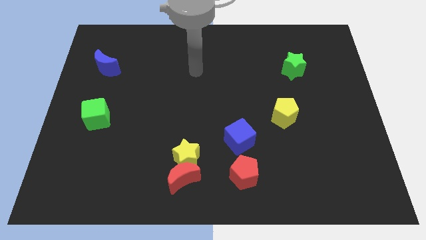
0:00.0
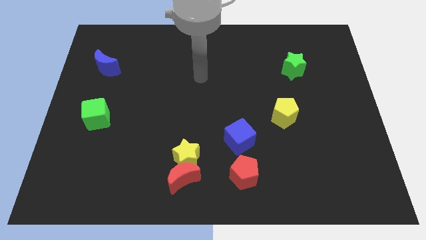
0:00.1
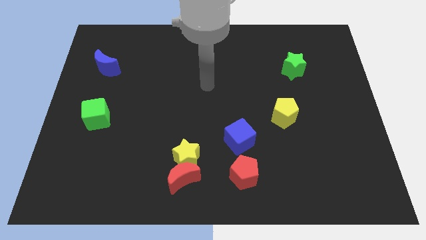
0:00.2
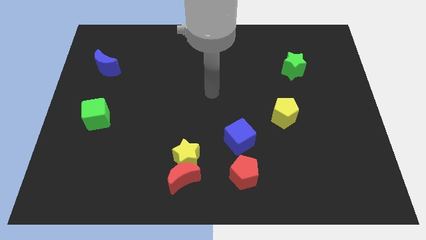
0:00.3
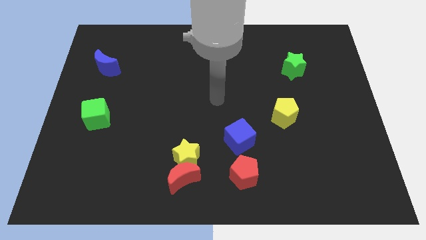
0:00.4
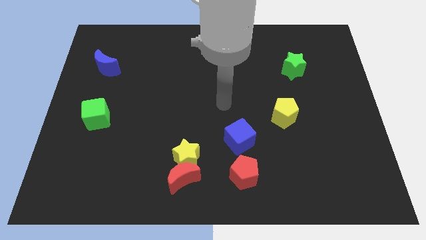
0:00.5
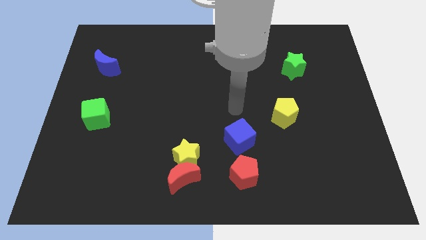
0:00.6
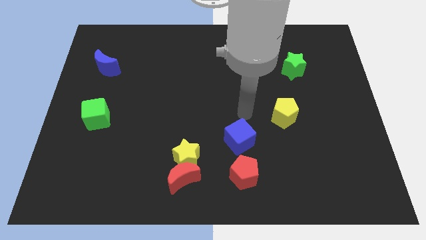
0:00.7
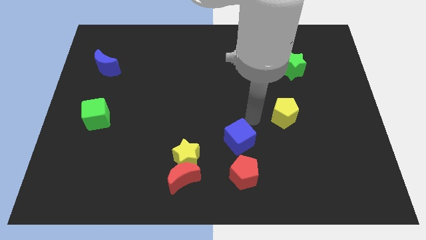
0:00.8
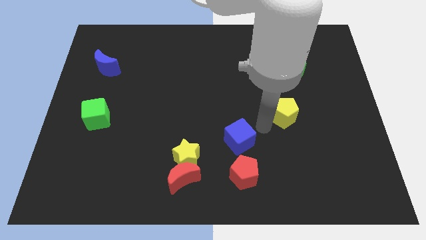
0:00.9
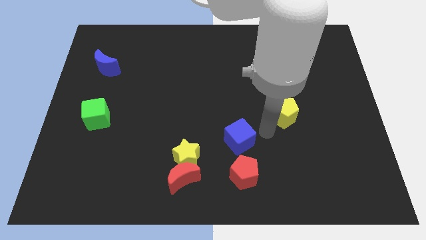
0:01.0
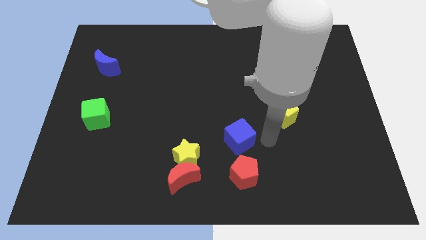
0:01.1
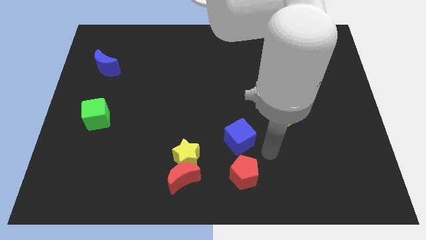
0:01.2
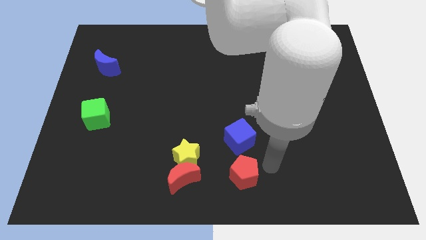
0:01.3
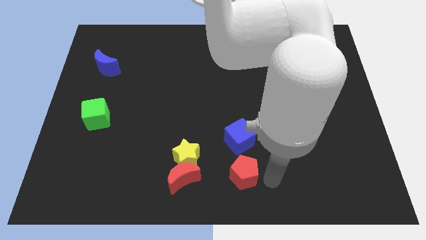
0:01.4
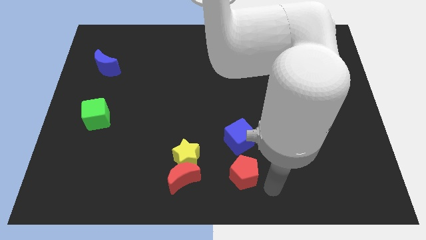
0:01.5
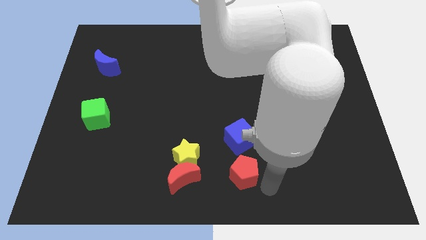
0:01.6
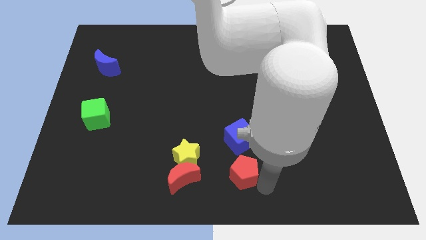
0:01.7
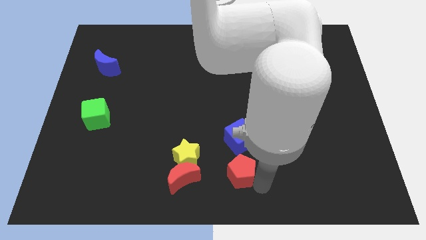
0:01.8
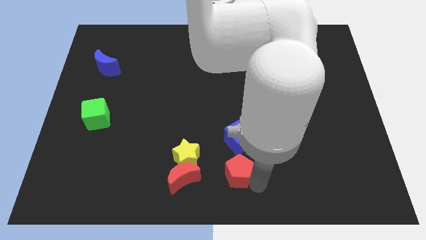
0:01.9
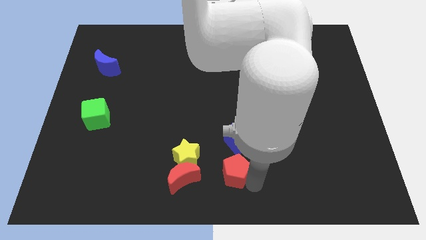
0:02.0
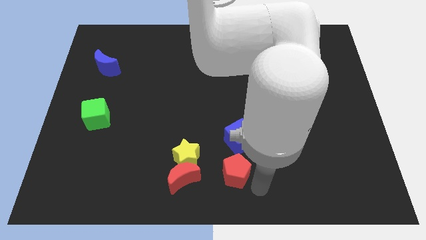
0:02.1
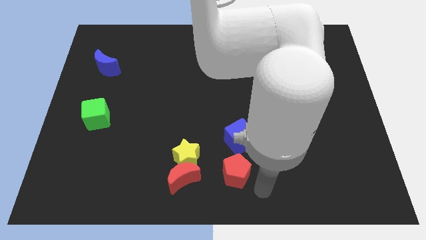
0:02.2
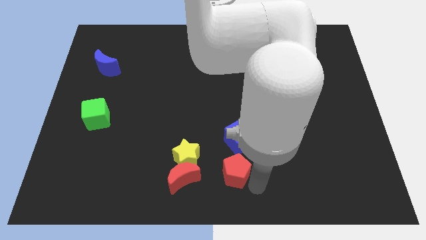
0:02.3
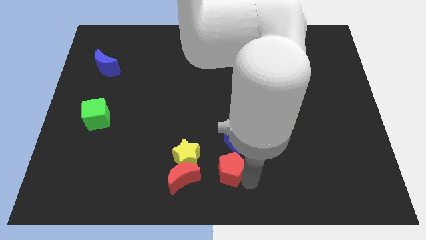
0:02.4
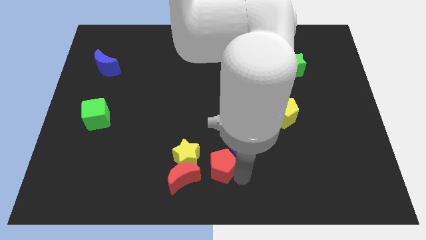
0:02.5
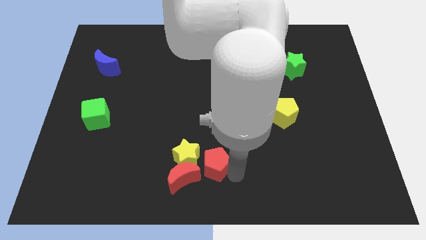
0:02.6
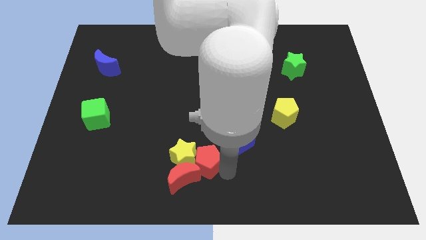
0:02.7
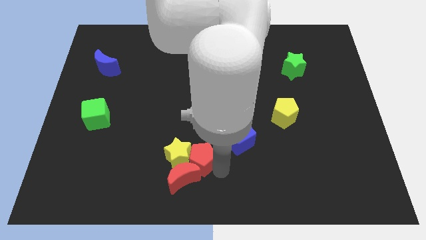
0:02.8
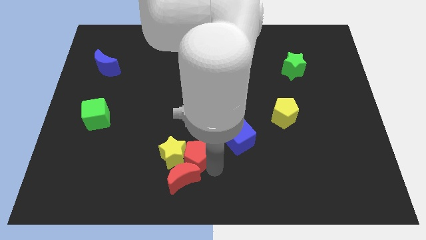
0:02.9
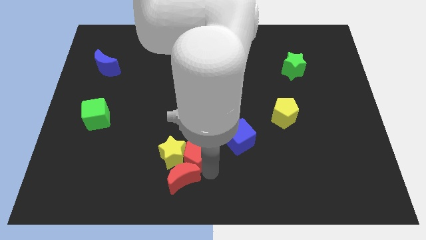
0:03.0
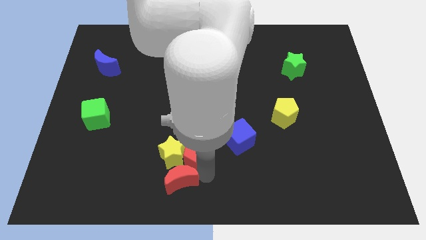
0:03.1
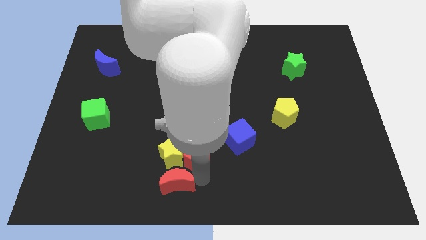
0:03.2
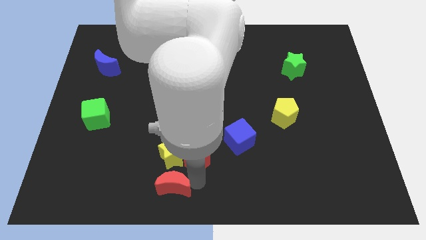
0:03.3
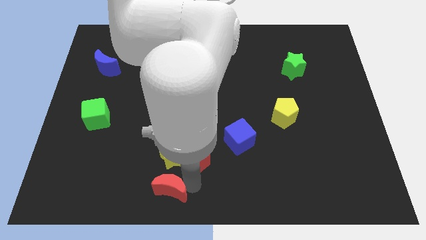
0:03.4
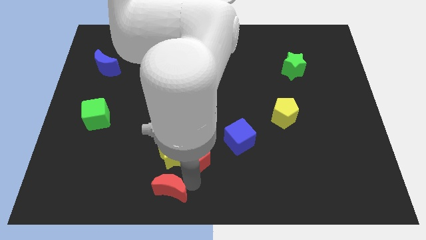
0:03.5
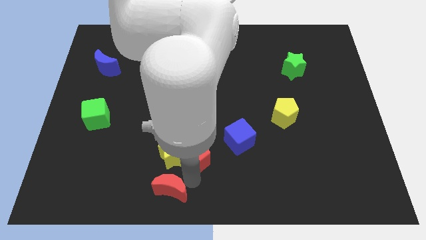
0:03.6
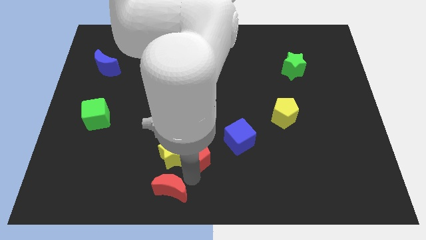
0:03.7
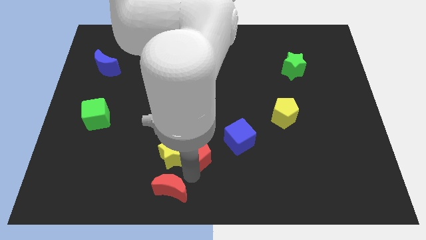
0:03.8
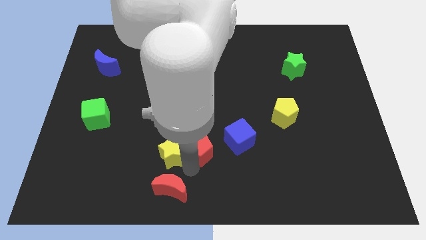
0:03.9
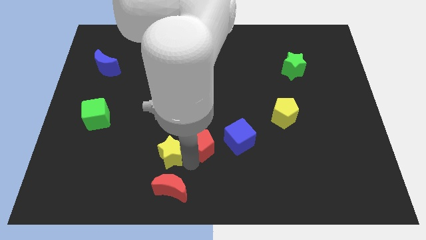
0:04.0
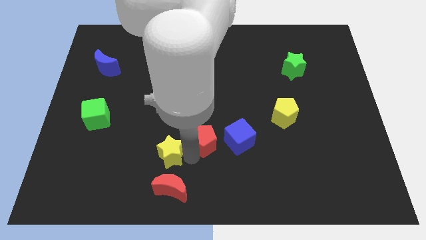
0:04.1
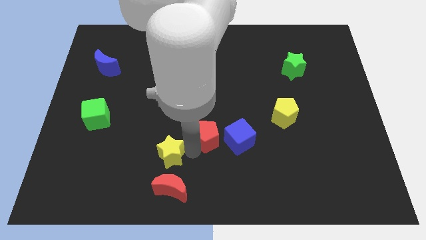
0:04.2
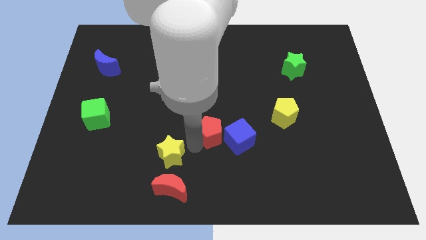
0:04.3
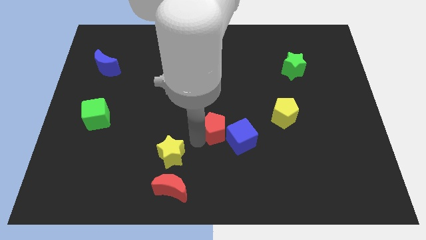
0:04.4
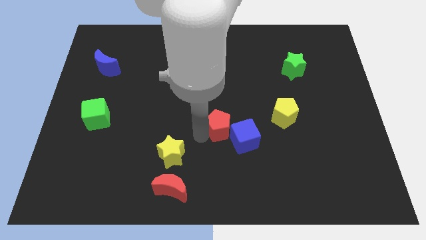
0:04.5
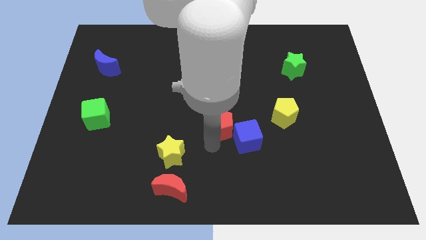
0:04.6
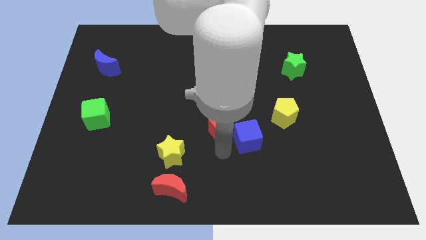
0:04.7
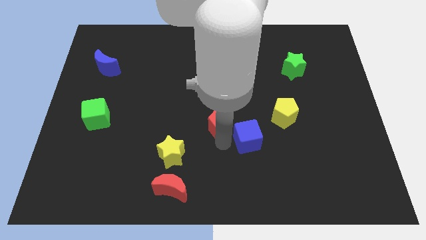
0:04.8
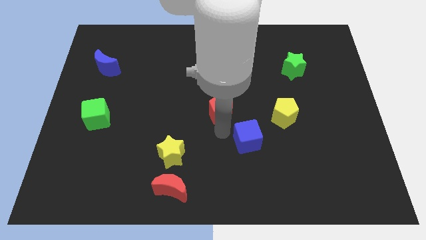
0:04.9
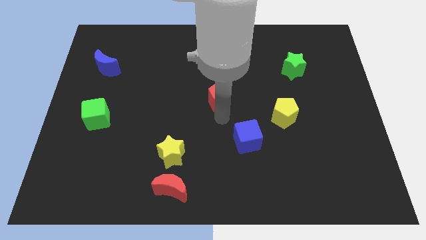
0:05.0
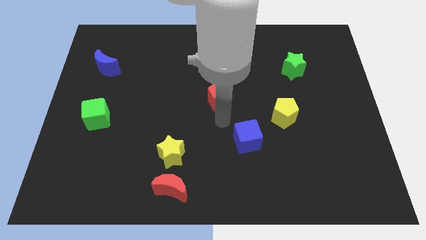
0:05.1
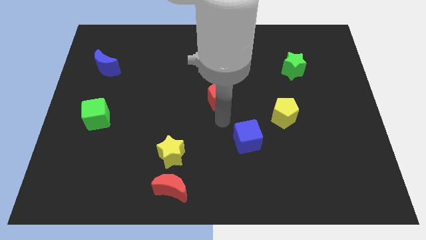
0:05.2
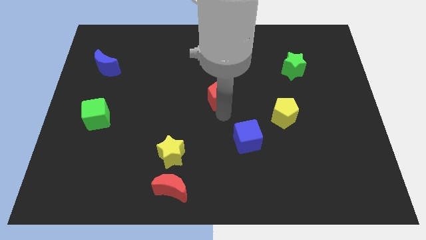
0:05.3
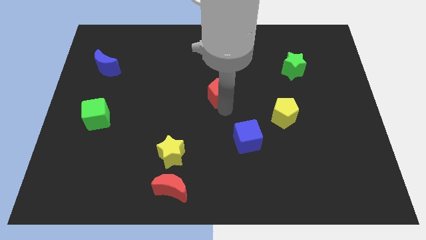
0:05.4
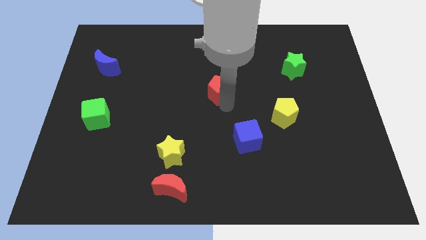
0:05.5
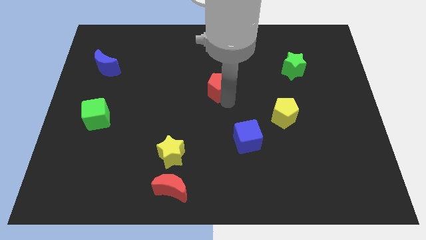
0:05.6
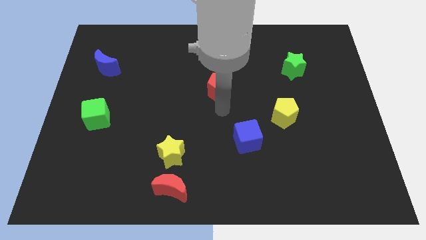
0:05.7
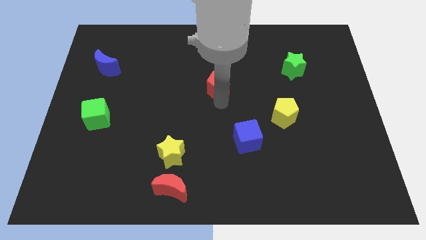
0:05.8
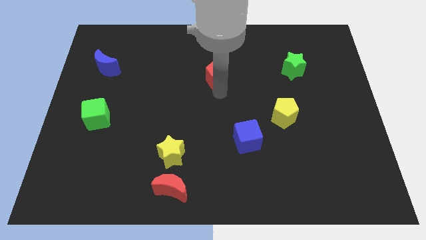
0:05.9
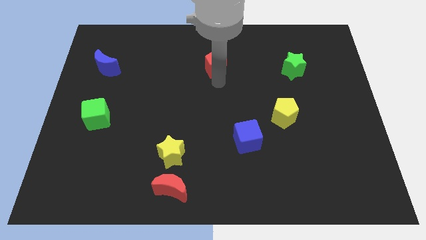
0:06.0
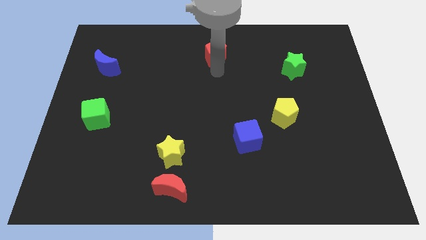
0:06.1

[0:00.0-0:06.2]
slide the red pentagon to the top
